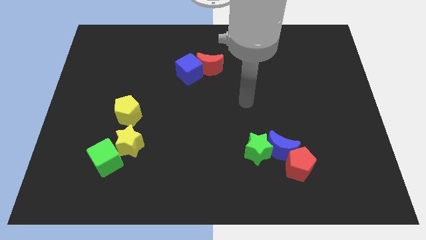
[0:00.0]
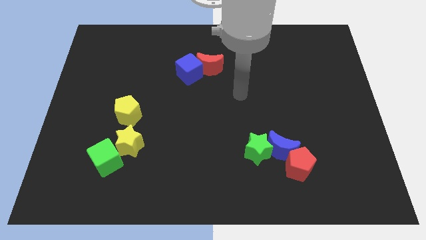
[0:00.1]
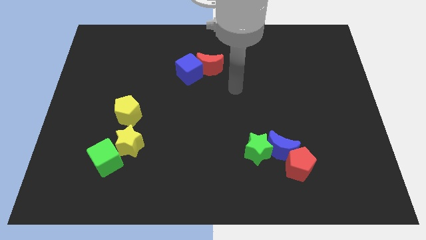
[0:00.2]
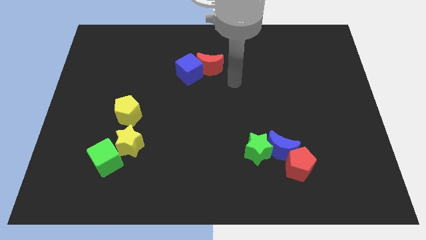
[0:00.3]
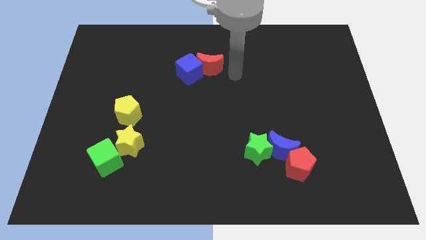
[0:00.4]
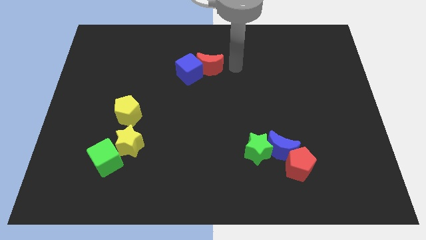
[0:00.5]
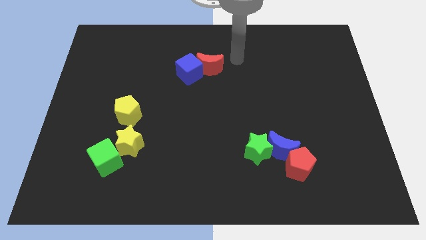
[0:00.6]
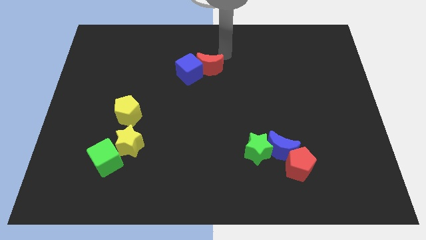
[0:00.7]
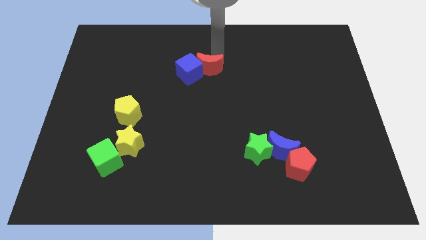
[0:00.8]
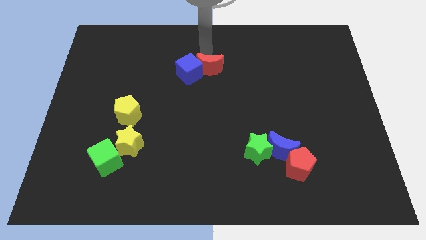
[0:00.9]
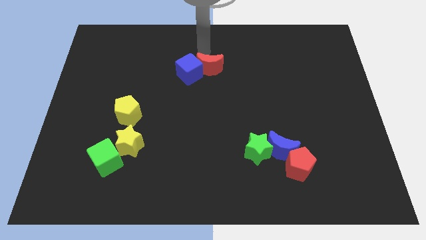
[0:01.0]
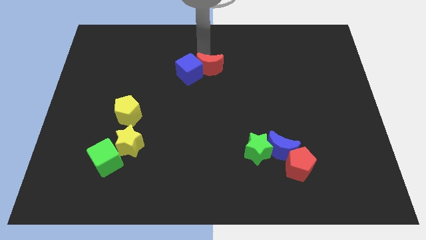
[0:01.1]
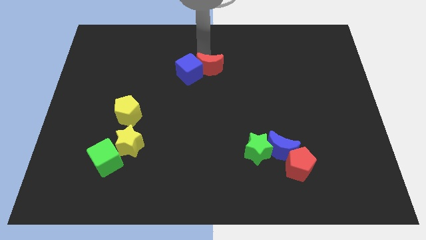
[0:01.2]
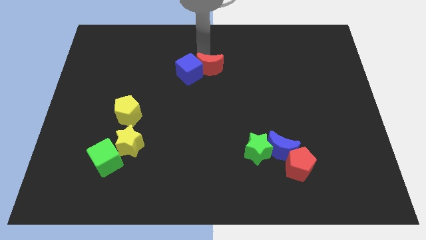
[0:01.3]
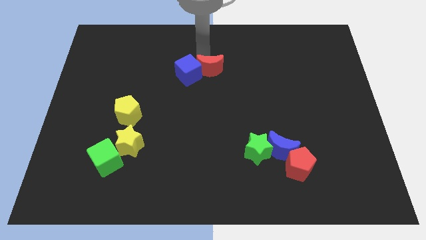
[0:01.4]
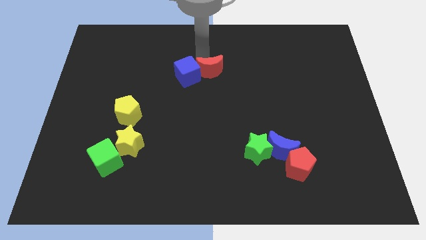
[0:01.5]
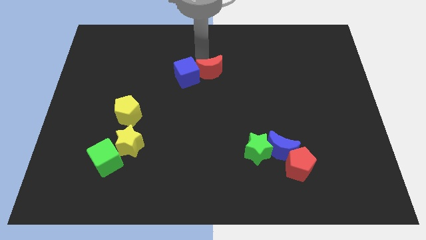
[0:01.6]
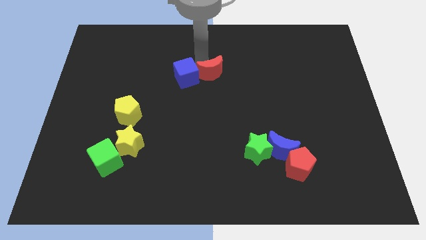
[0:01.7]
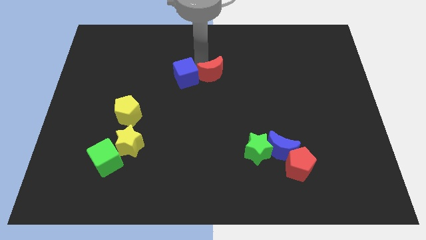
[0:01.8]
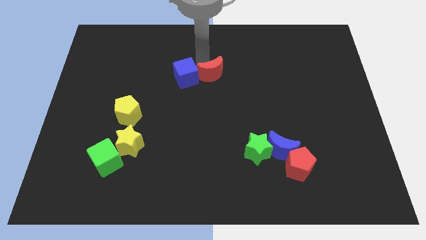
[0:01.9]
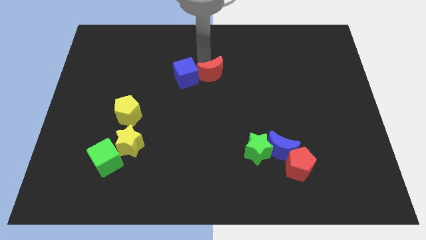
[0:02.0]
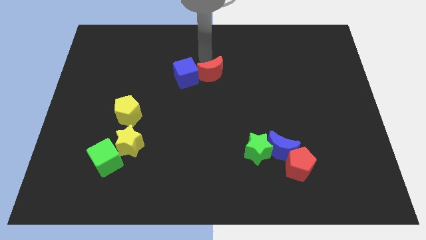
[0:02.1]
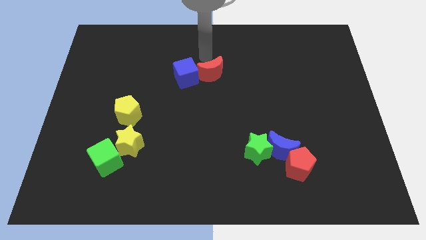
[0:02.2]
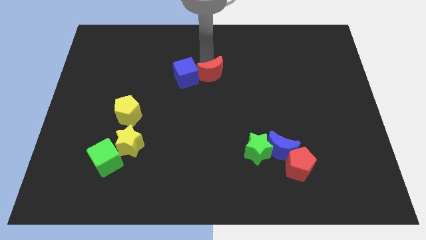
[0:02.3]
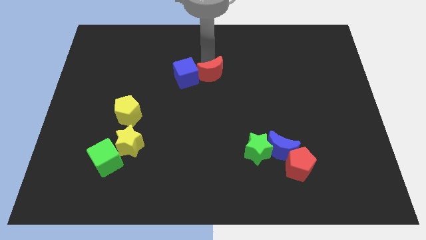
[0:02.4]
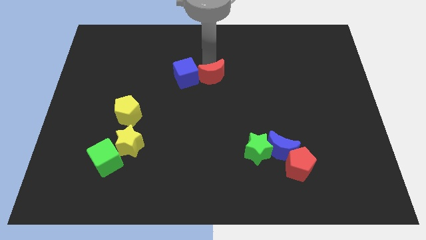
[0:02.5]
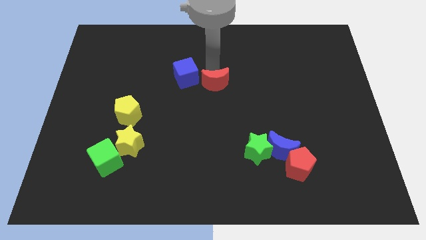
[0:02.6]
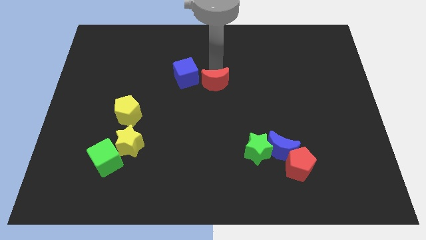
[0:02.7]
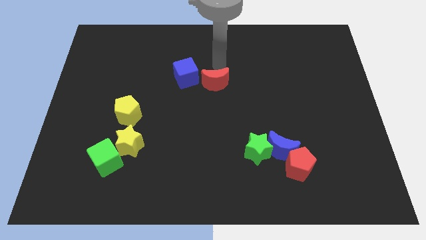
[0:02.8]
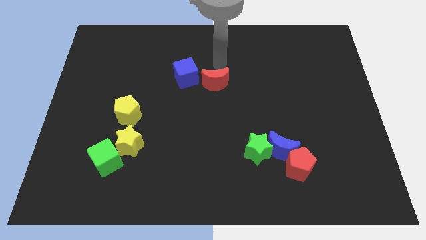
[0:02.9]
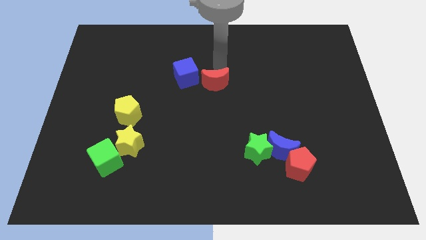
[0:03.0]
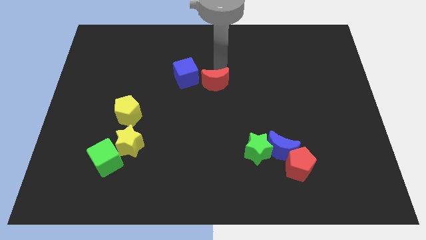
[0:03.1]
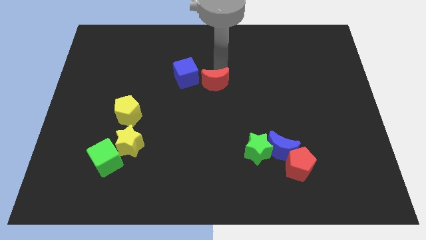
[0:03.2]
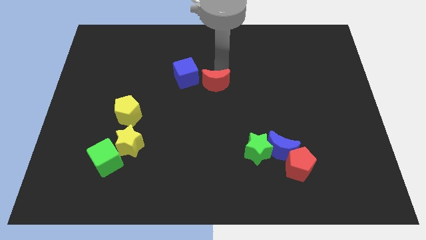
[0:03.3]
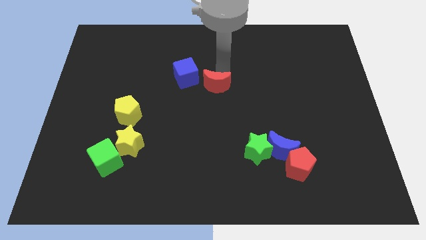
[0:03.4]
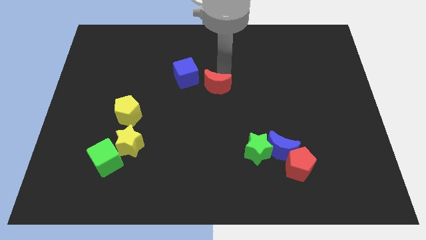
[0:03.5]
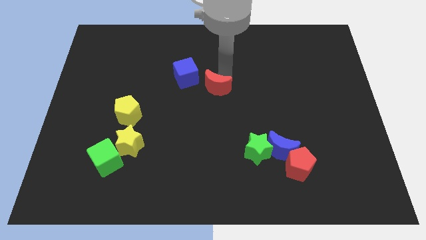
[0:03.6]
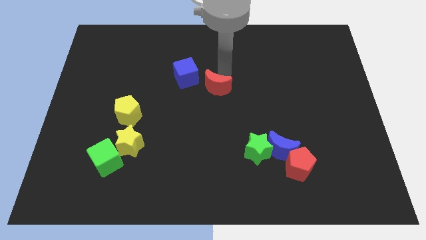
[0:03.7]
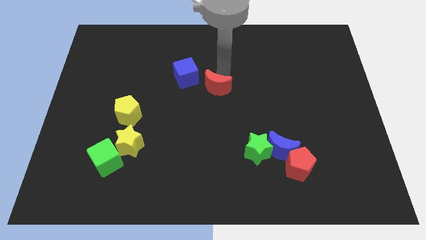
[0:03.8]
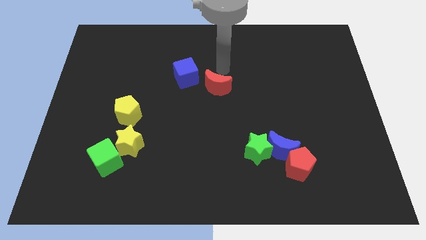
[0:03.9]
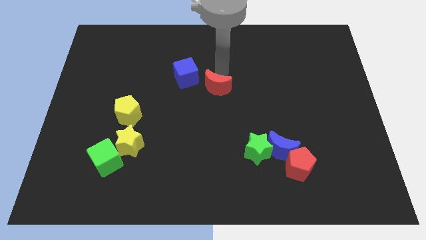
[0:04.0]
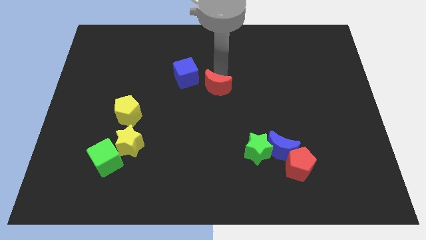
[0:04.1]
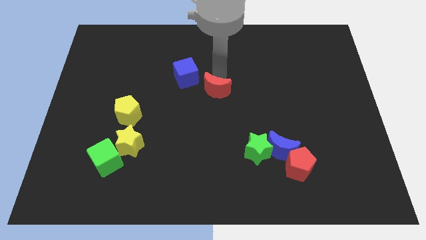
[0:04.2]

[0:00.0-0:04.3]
move the red moon slightly downwards

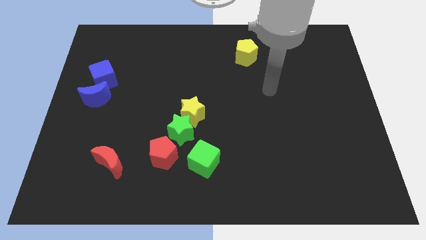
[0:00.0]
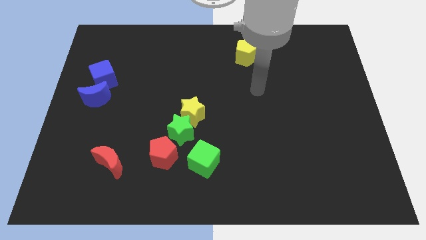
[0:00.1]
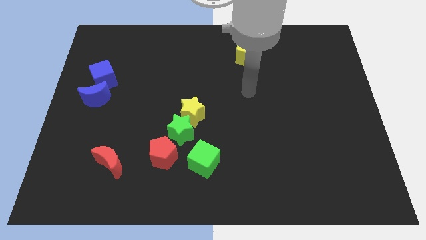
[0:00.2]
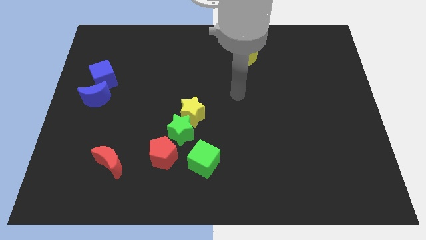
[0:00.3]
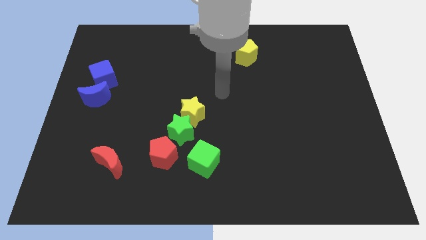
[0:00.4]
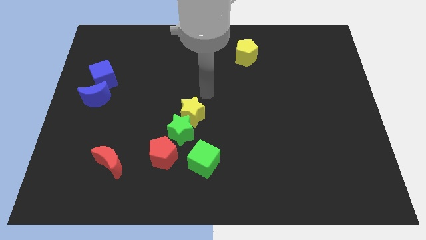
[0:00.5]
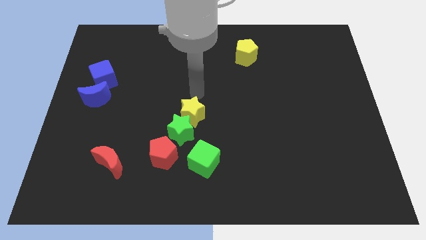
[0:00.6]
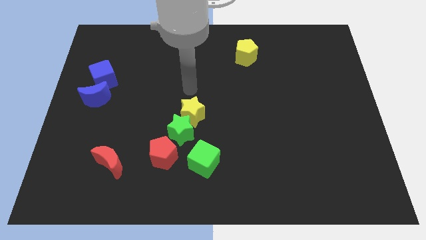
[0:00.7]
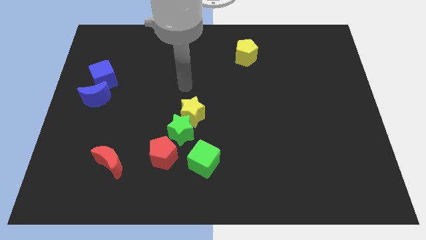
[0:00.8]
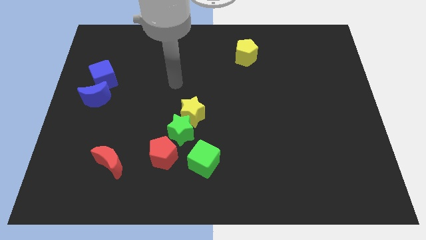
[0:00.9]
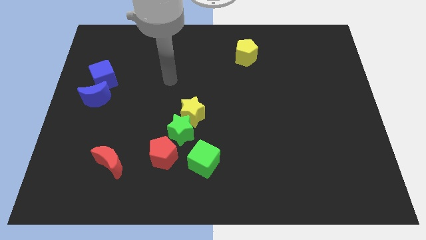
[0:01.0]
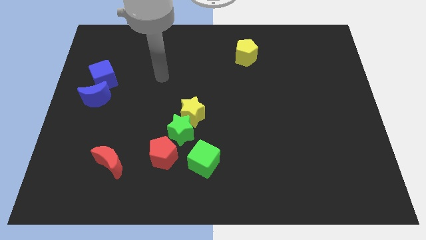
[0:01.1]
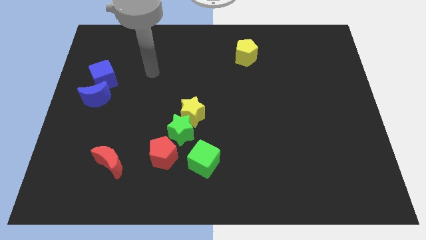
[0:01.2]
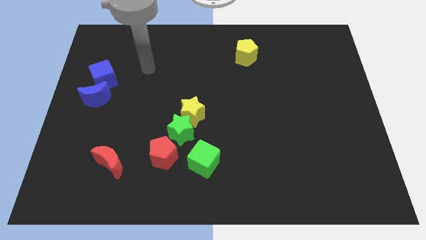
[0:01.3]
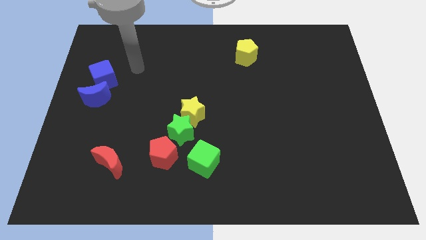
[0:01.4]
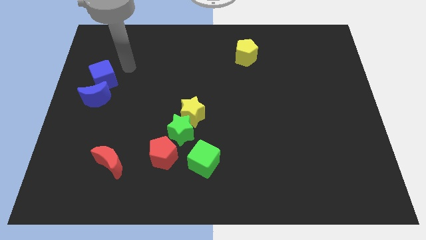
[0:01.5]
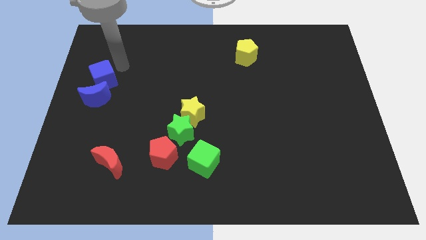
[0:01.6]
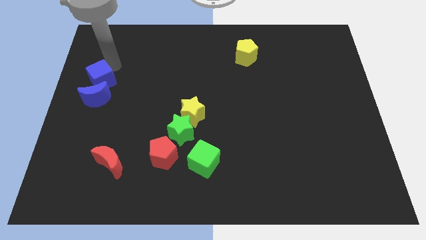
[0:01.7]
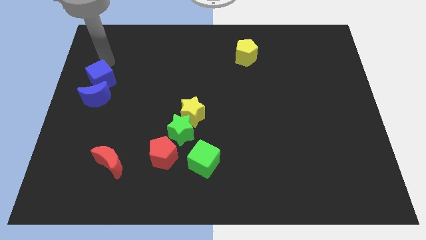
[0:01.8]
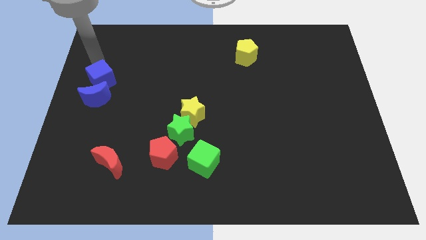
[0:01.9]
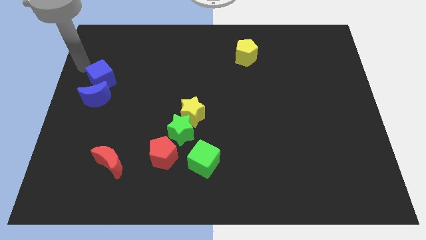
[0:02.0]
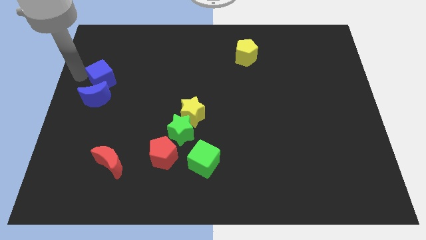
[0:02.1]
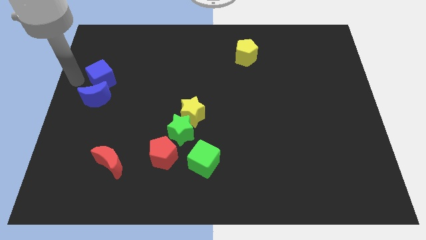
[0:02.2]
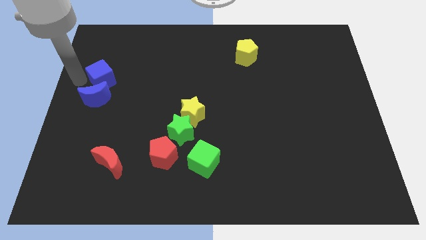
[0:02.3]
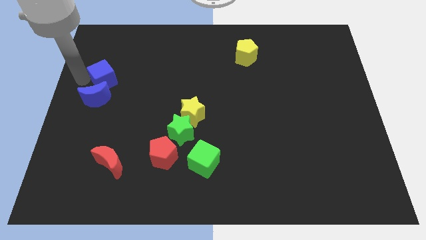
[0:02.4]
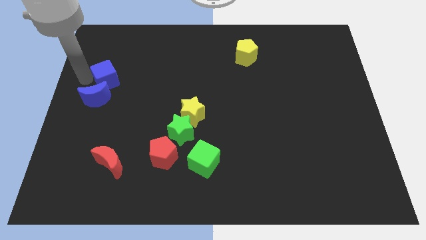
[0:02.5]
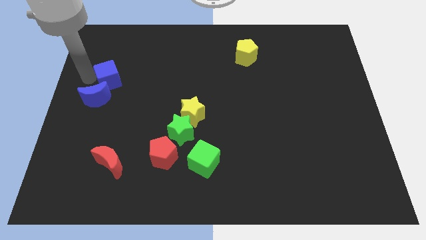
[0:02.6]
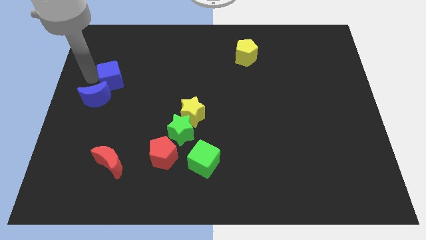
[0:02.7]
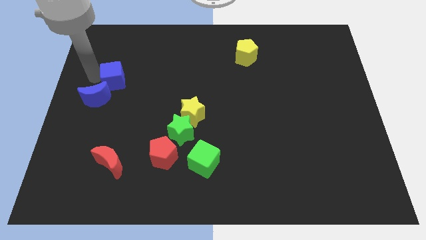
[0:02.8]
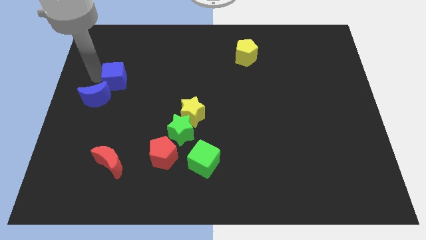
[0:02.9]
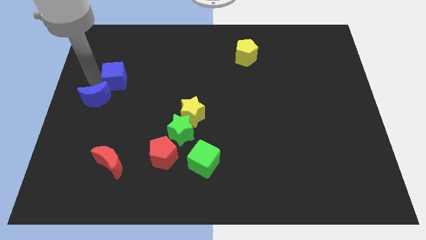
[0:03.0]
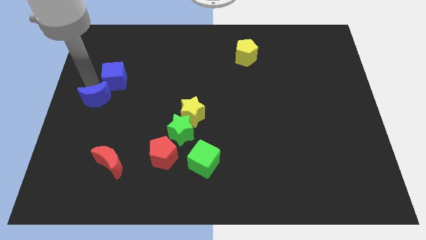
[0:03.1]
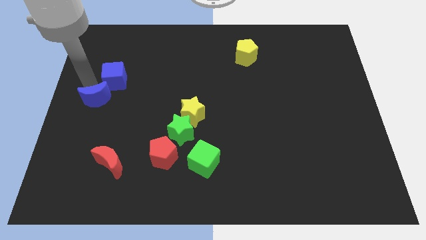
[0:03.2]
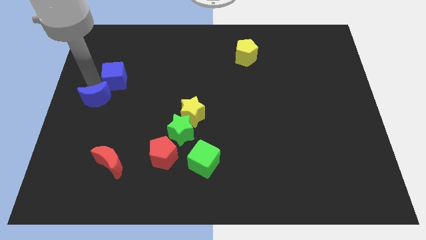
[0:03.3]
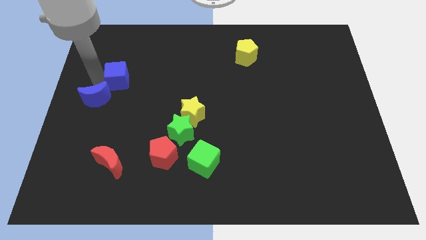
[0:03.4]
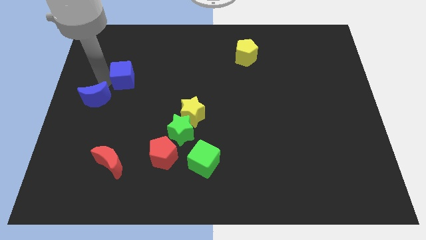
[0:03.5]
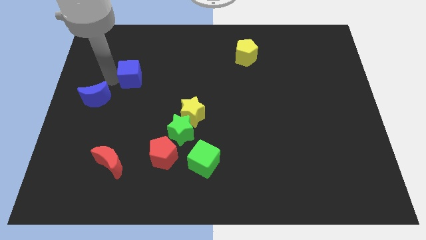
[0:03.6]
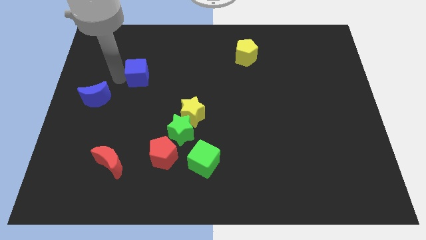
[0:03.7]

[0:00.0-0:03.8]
slightly slide the blue cube right

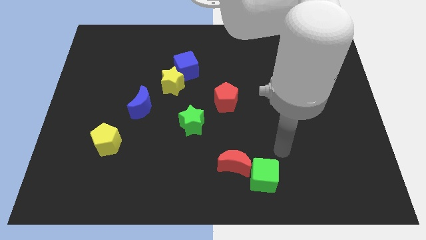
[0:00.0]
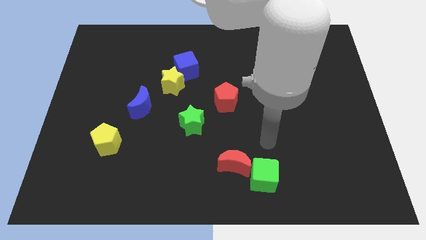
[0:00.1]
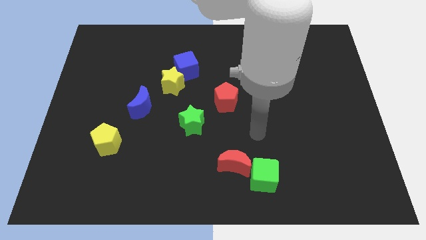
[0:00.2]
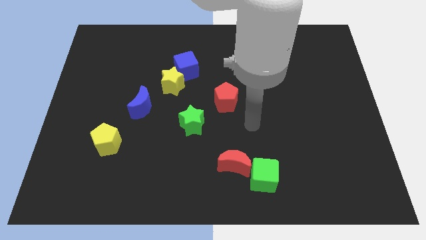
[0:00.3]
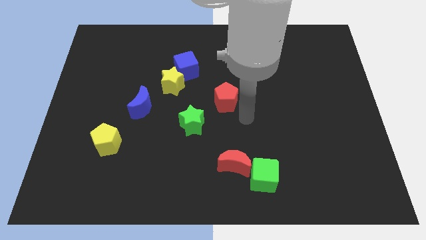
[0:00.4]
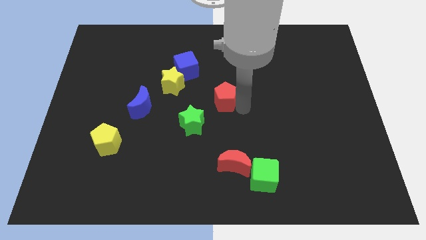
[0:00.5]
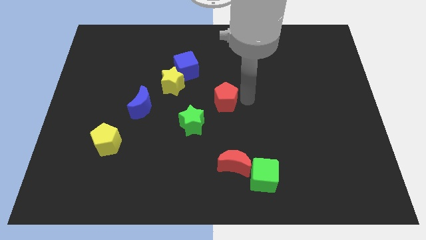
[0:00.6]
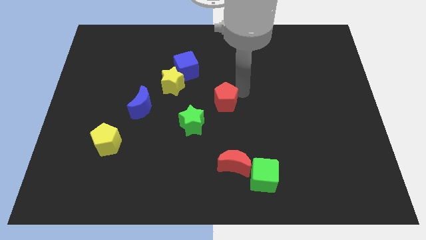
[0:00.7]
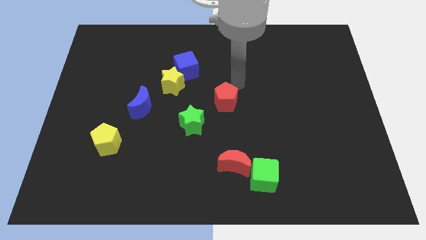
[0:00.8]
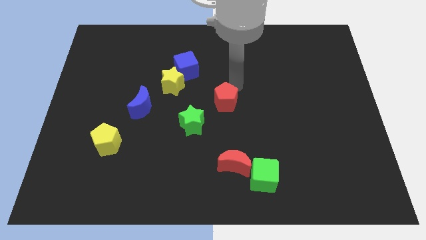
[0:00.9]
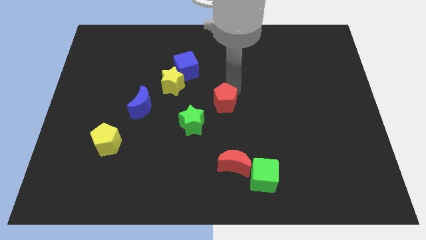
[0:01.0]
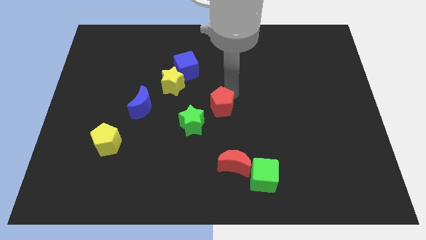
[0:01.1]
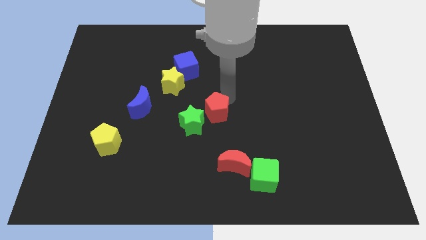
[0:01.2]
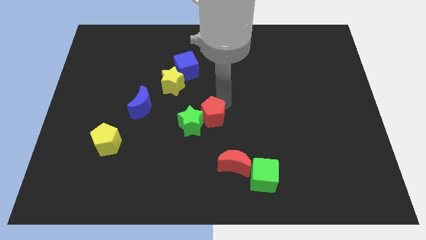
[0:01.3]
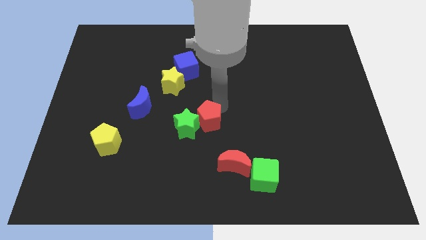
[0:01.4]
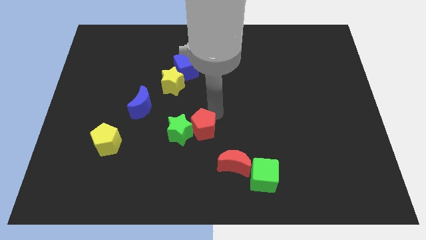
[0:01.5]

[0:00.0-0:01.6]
slide the red pentagon a little down and to the left diagonally
